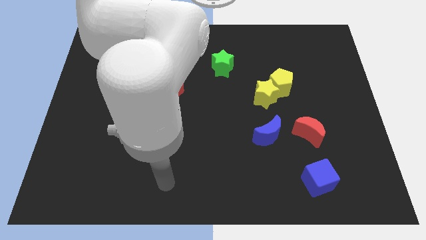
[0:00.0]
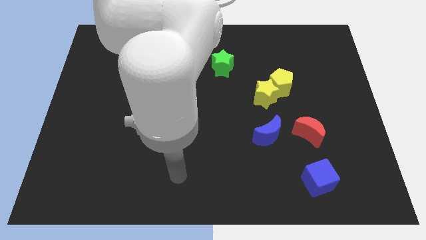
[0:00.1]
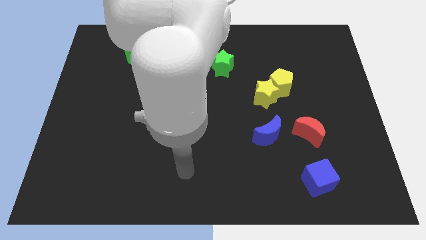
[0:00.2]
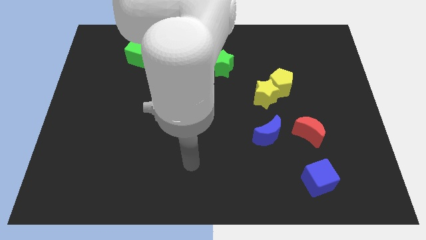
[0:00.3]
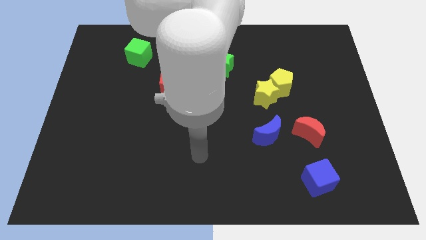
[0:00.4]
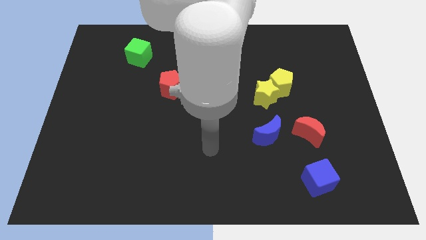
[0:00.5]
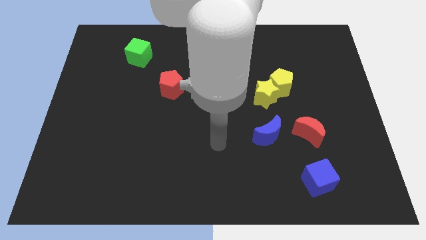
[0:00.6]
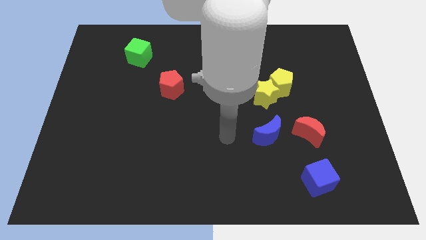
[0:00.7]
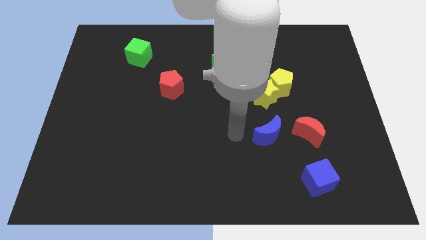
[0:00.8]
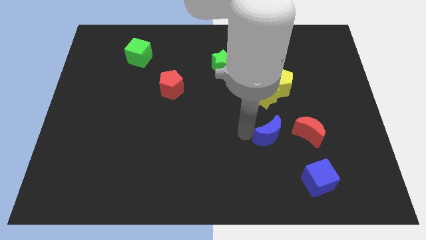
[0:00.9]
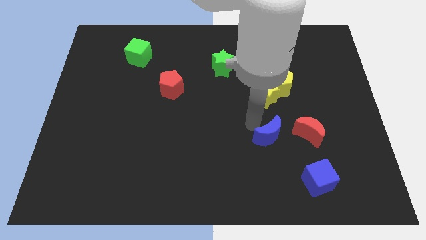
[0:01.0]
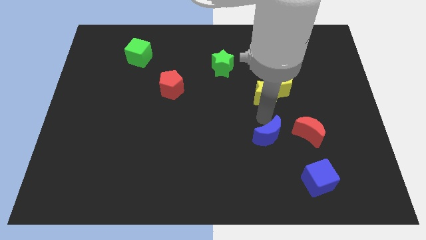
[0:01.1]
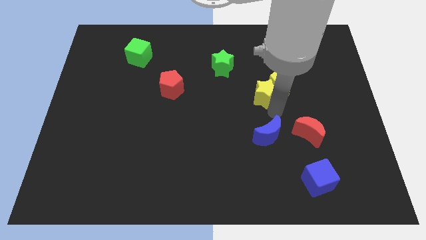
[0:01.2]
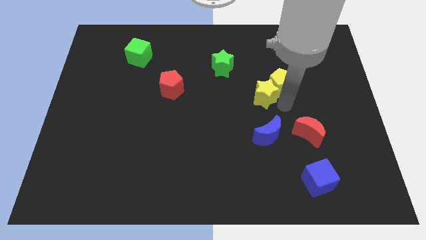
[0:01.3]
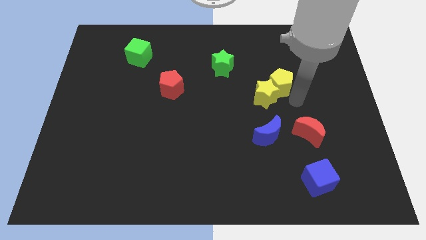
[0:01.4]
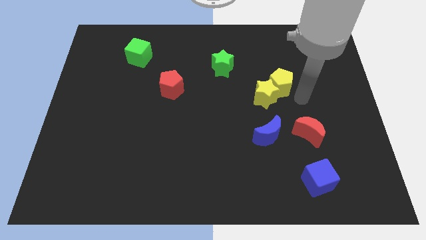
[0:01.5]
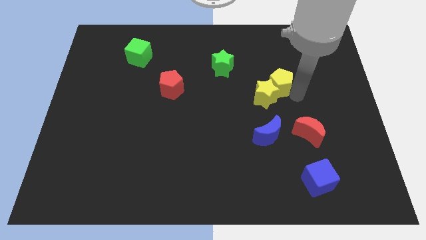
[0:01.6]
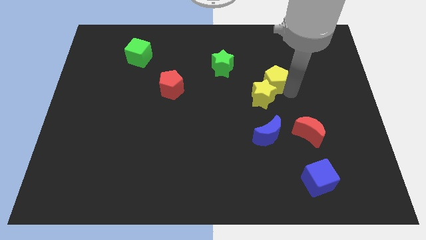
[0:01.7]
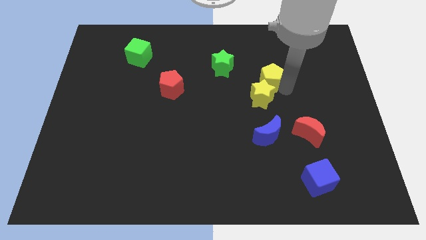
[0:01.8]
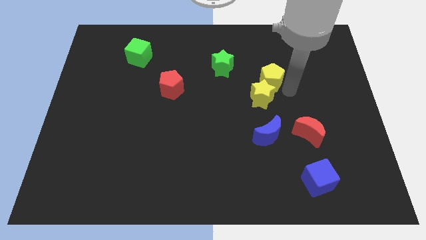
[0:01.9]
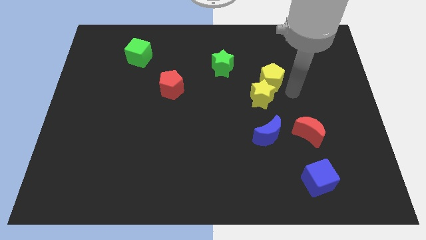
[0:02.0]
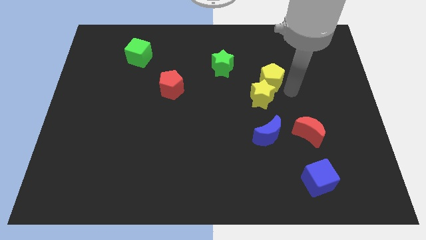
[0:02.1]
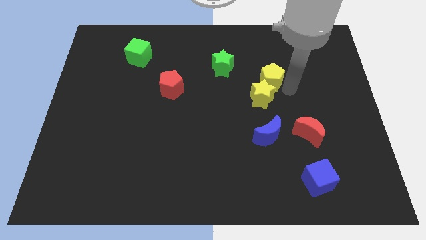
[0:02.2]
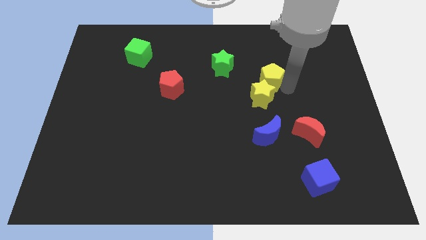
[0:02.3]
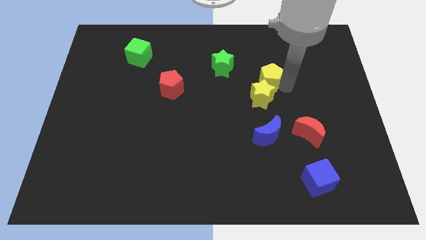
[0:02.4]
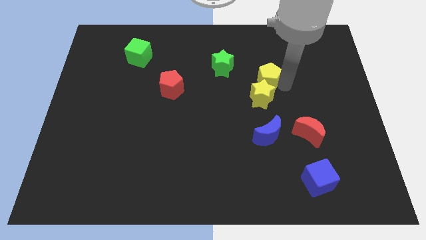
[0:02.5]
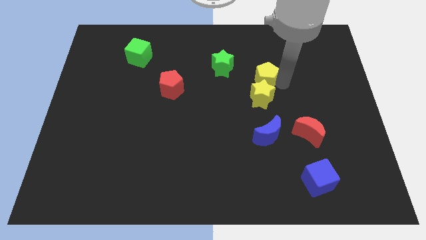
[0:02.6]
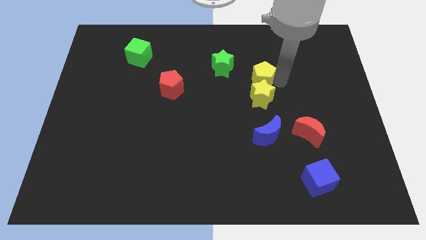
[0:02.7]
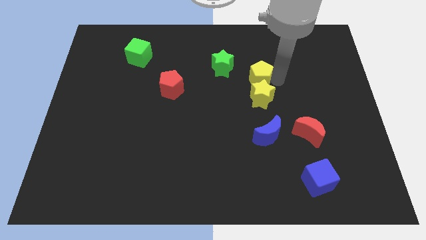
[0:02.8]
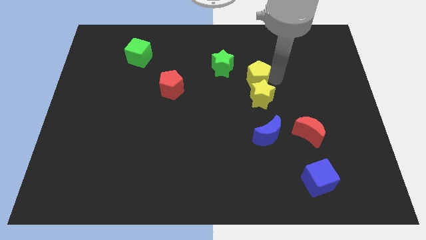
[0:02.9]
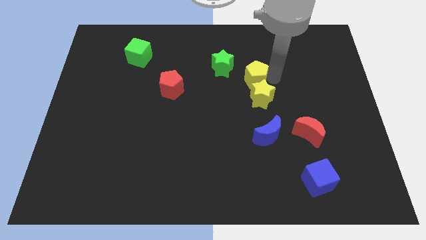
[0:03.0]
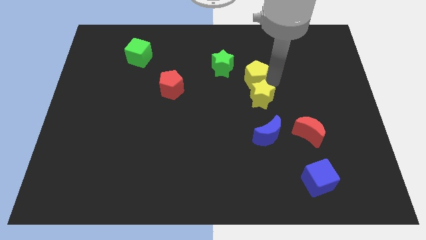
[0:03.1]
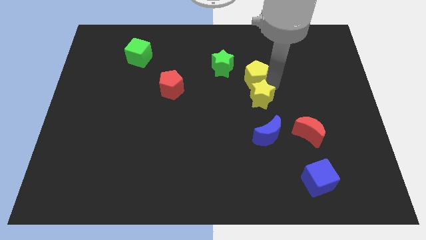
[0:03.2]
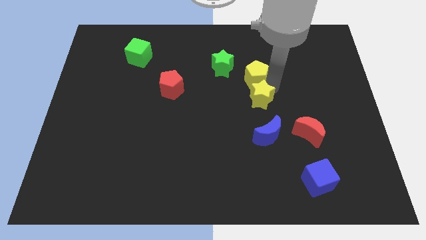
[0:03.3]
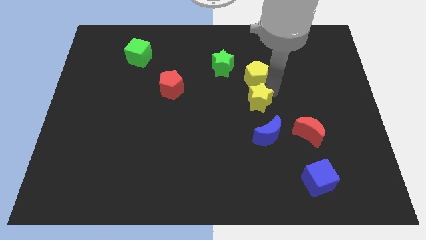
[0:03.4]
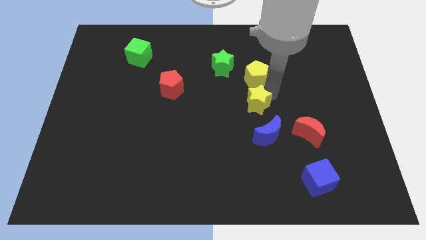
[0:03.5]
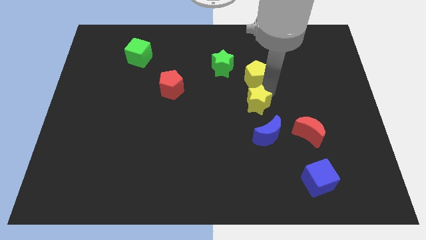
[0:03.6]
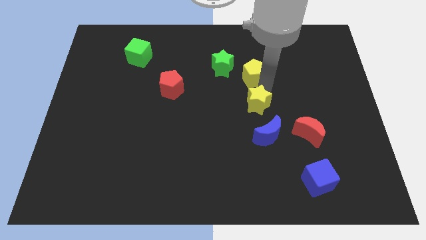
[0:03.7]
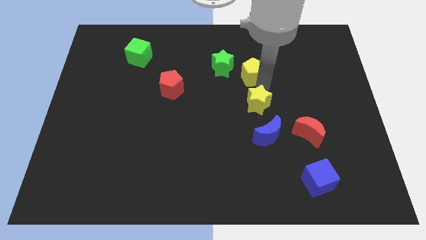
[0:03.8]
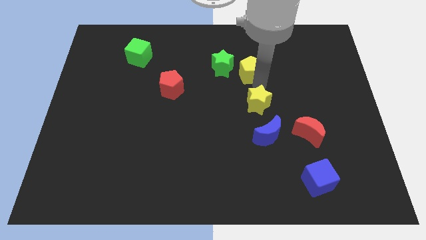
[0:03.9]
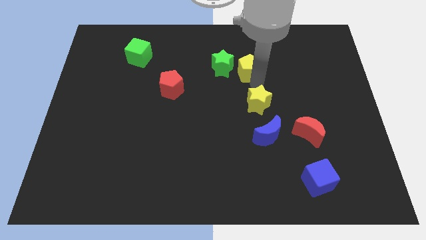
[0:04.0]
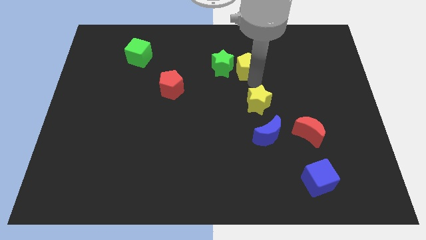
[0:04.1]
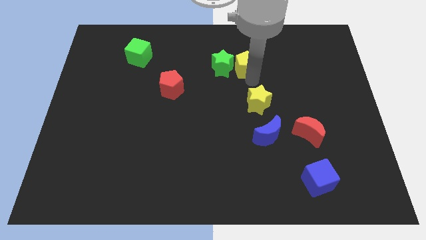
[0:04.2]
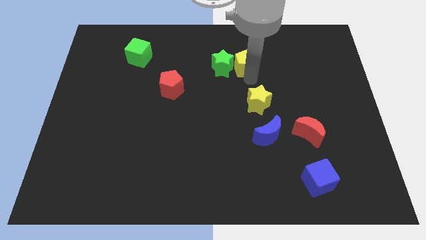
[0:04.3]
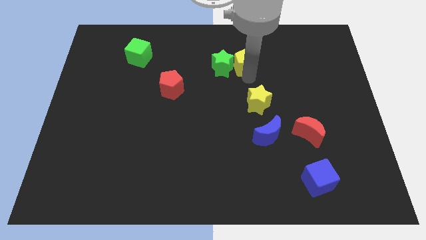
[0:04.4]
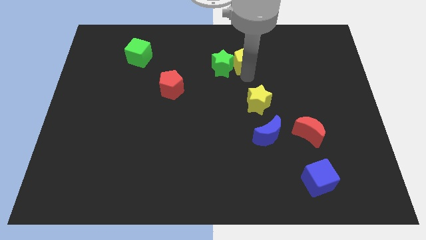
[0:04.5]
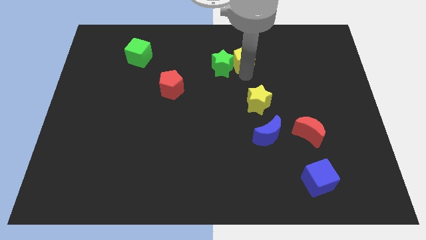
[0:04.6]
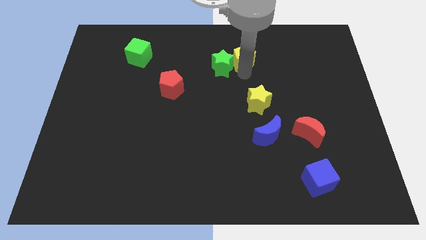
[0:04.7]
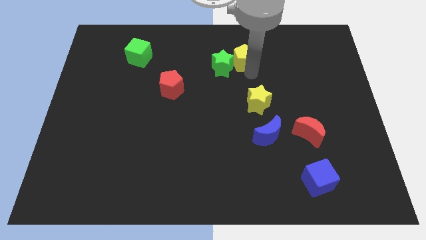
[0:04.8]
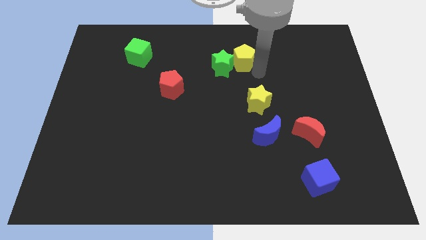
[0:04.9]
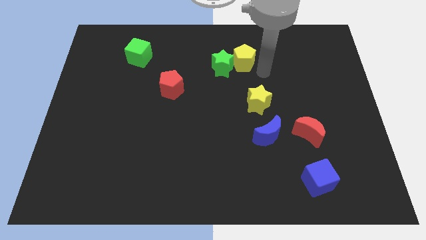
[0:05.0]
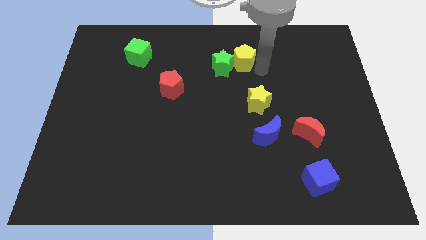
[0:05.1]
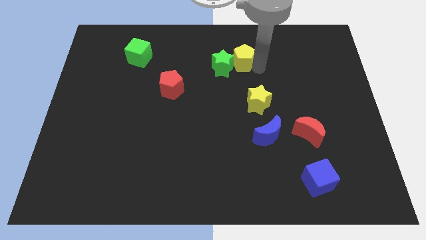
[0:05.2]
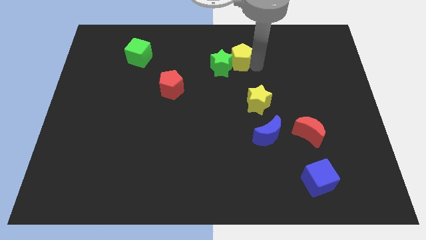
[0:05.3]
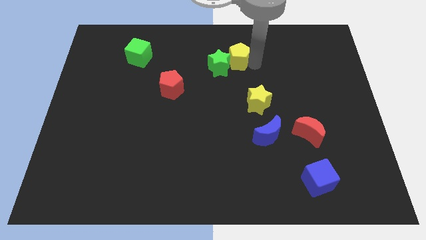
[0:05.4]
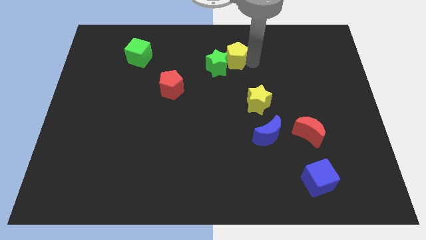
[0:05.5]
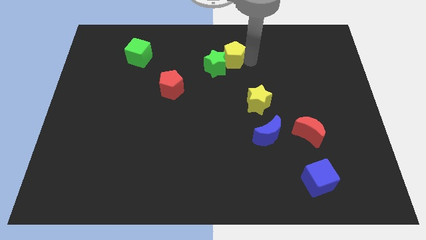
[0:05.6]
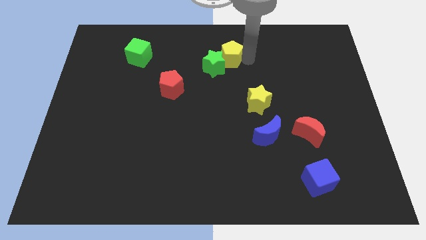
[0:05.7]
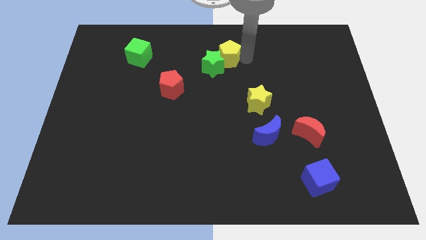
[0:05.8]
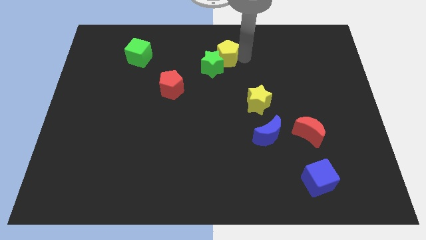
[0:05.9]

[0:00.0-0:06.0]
put the yellow pentagon to the top

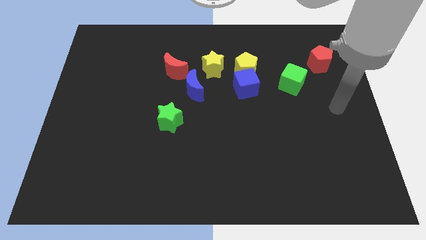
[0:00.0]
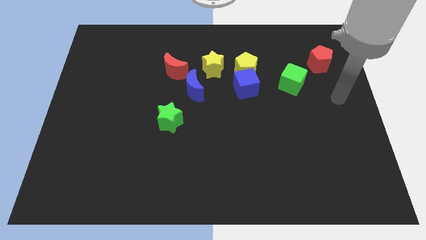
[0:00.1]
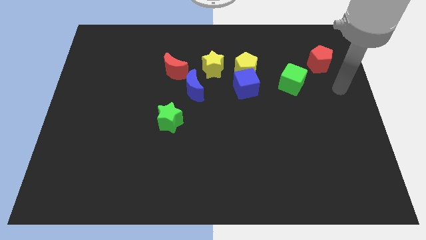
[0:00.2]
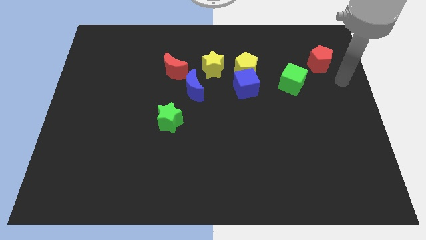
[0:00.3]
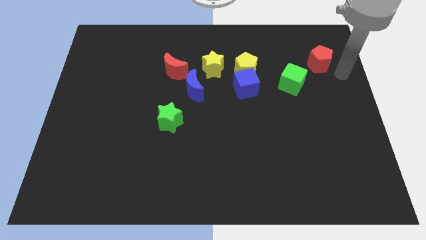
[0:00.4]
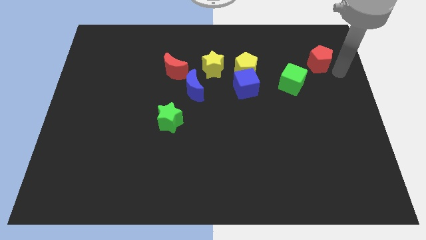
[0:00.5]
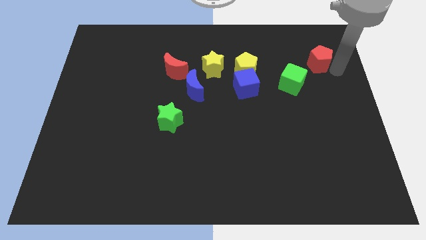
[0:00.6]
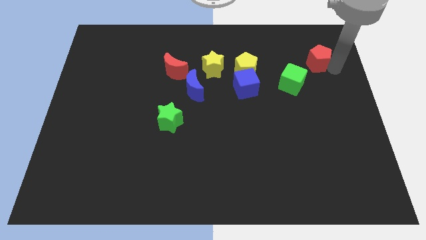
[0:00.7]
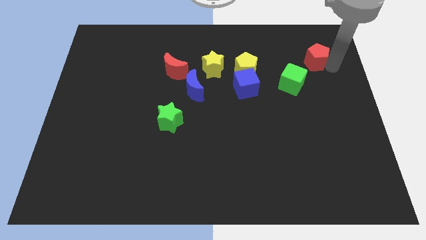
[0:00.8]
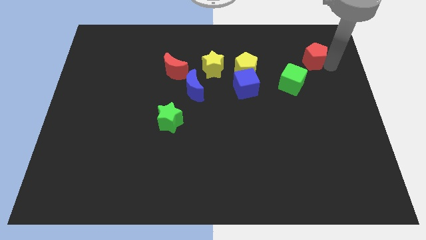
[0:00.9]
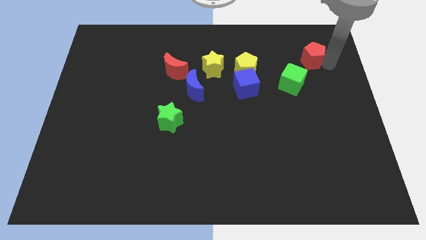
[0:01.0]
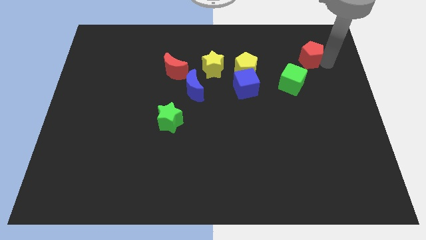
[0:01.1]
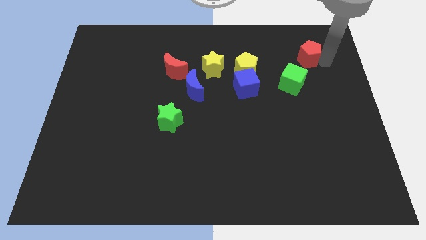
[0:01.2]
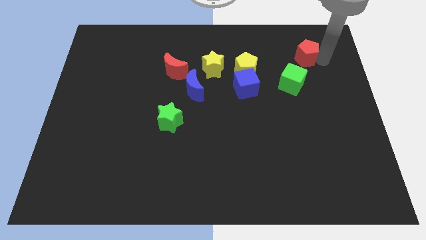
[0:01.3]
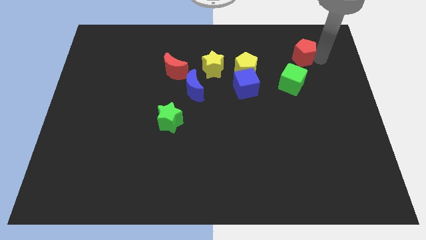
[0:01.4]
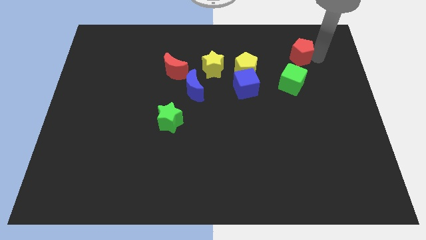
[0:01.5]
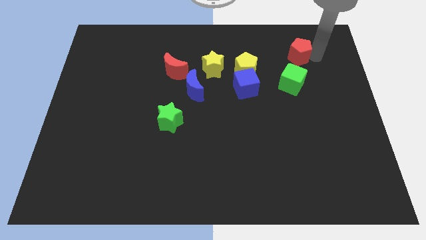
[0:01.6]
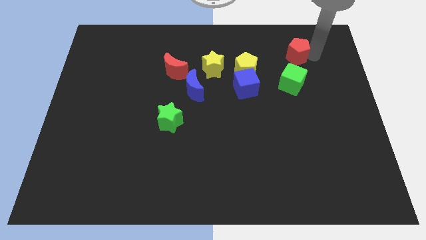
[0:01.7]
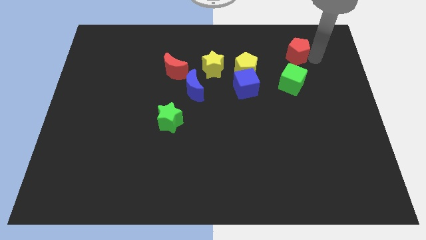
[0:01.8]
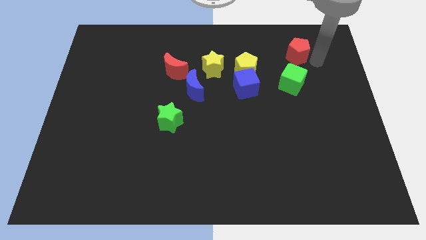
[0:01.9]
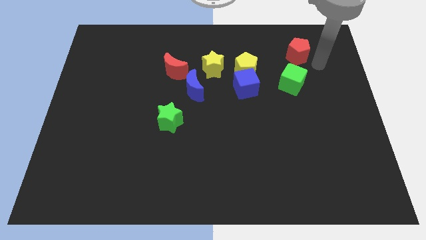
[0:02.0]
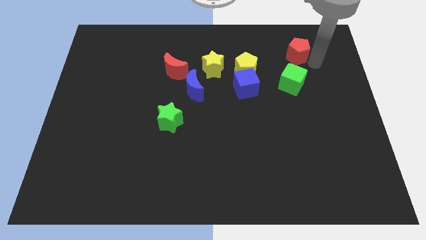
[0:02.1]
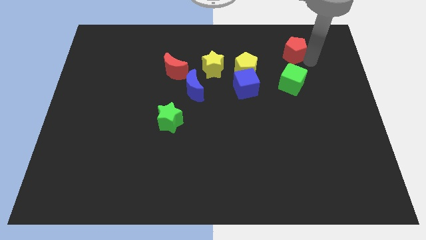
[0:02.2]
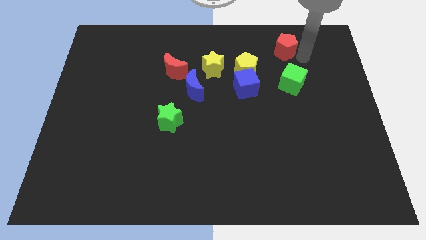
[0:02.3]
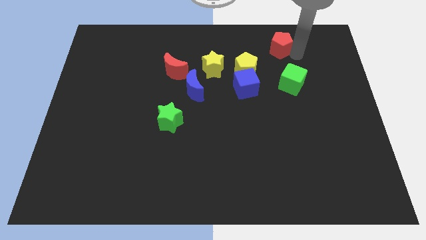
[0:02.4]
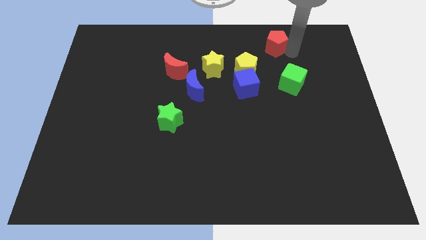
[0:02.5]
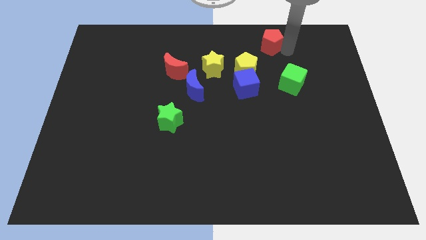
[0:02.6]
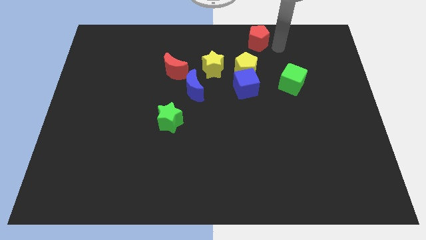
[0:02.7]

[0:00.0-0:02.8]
push the red pentagon to the towards your base
